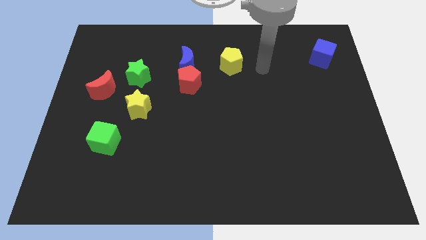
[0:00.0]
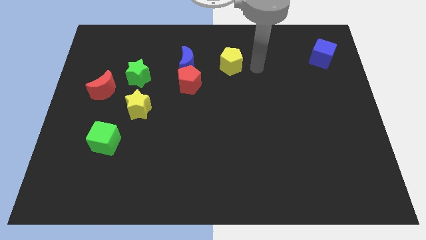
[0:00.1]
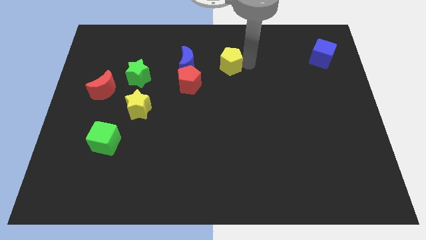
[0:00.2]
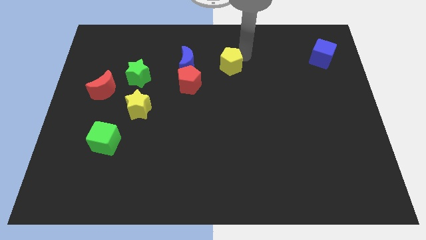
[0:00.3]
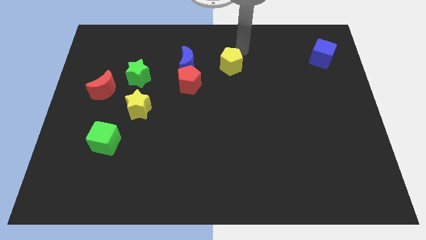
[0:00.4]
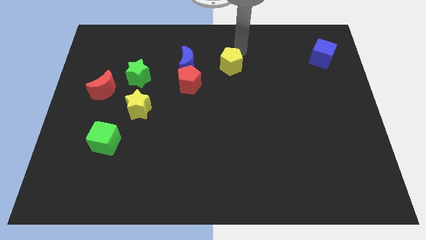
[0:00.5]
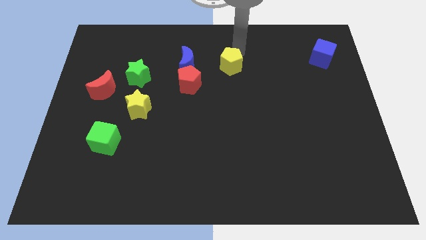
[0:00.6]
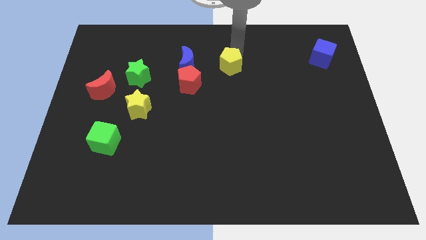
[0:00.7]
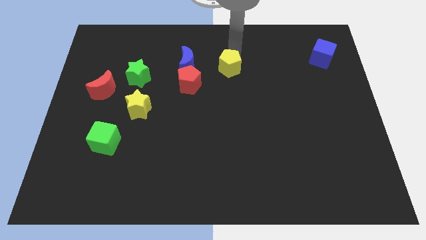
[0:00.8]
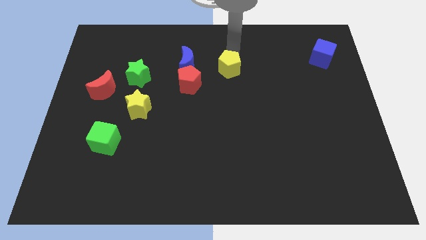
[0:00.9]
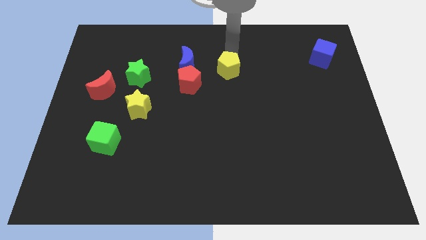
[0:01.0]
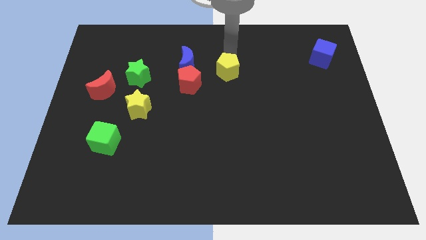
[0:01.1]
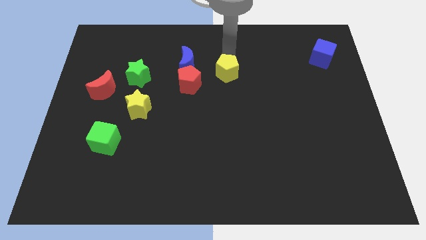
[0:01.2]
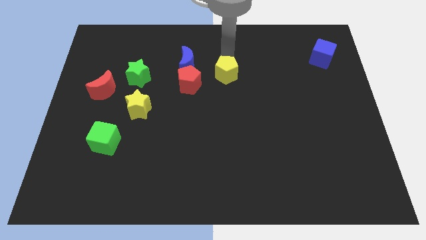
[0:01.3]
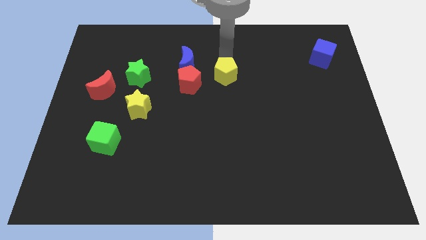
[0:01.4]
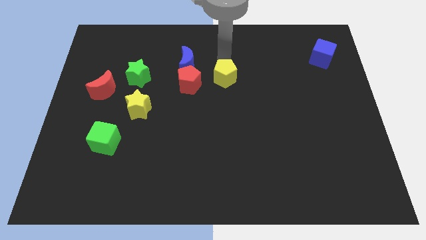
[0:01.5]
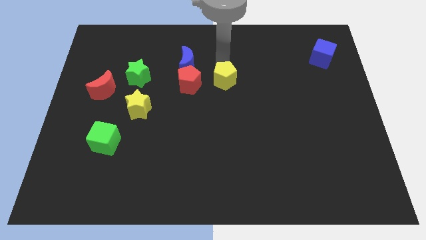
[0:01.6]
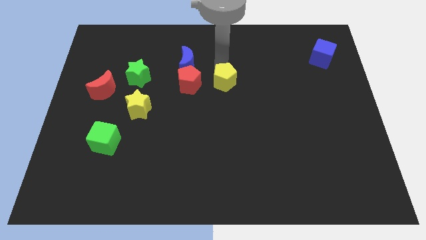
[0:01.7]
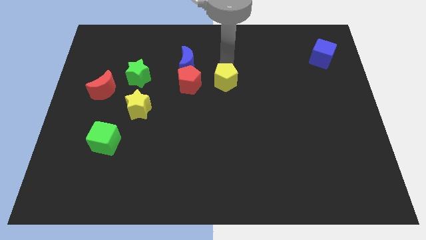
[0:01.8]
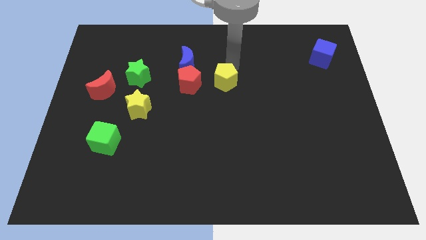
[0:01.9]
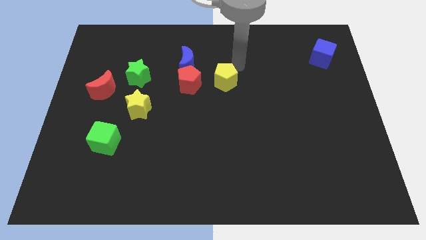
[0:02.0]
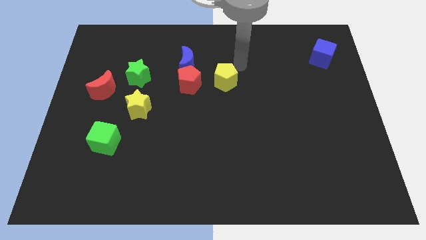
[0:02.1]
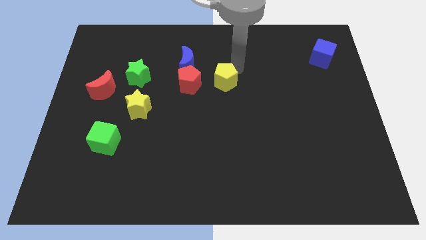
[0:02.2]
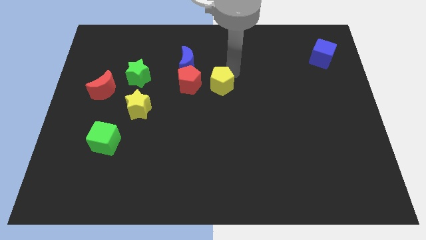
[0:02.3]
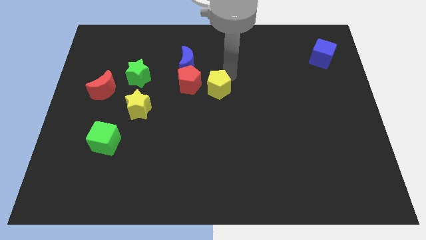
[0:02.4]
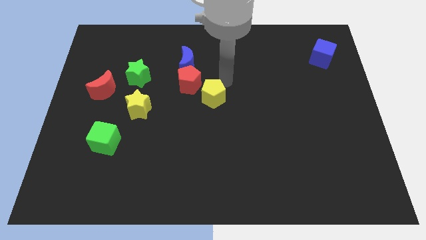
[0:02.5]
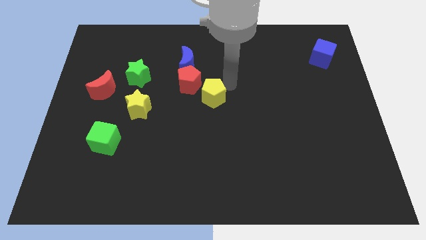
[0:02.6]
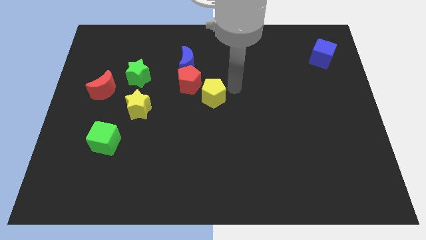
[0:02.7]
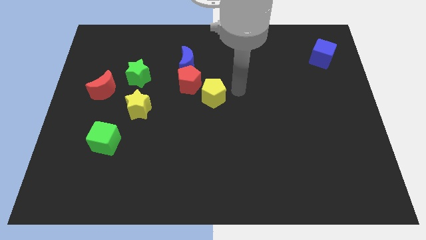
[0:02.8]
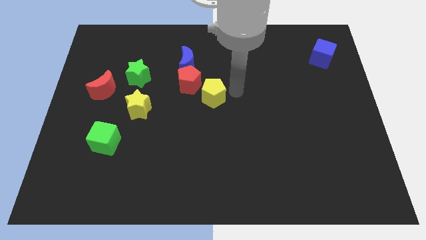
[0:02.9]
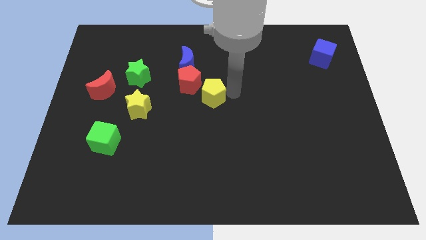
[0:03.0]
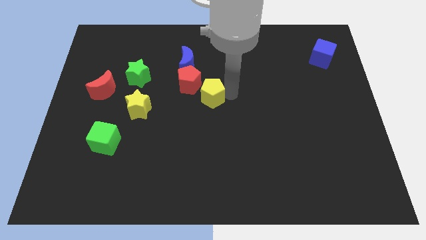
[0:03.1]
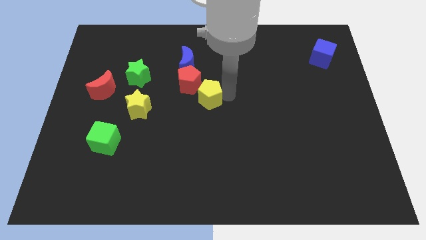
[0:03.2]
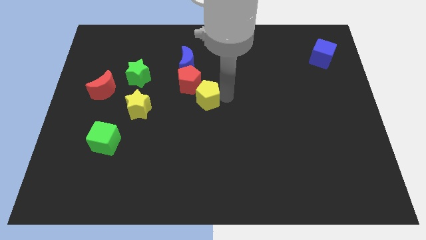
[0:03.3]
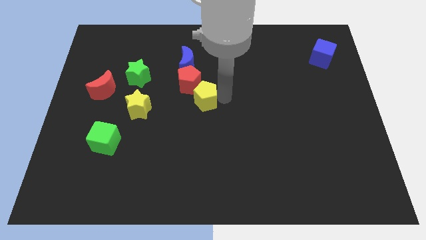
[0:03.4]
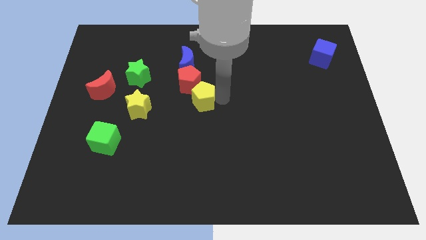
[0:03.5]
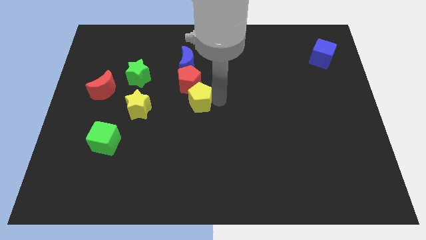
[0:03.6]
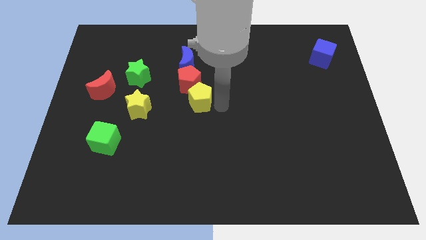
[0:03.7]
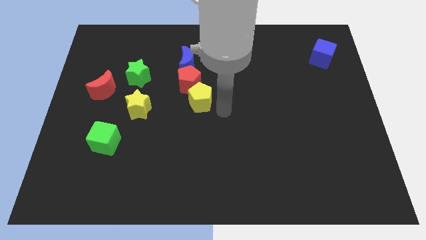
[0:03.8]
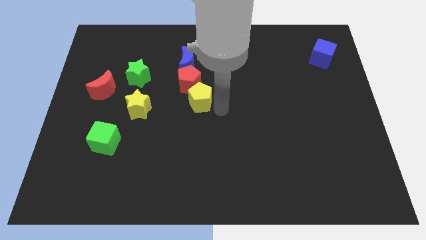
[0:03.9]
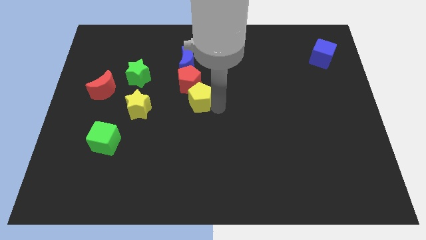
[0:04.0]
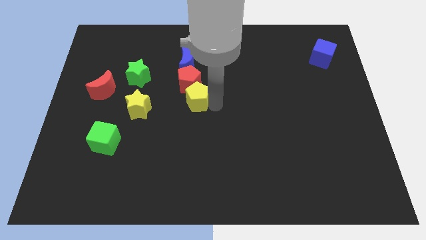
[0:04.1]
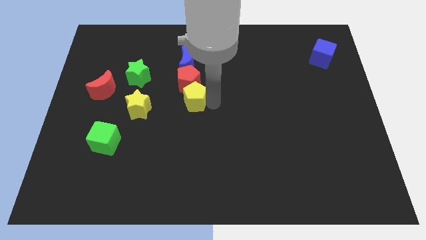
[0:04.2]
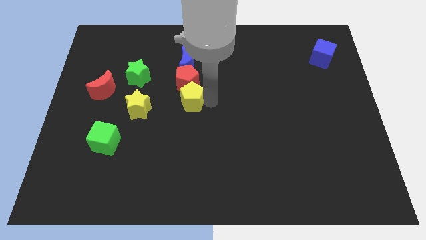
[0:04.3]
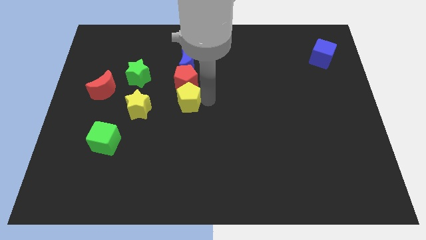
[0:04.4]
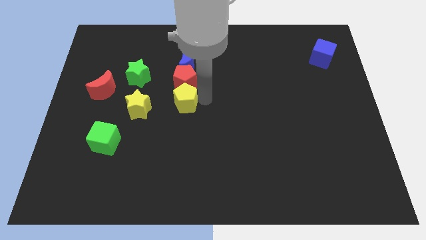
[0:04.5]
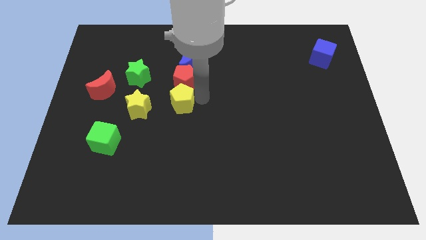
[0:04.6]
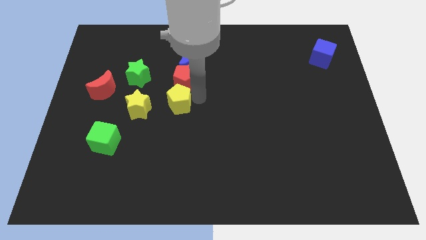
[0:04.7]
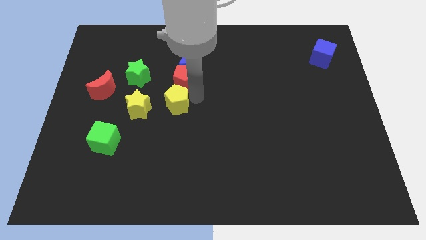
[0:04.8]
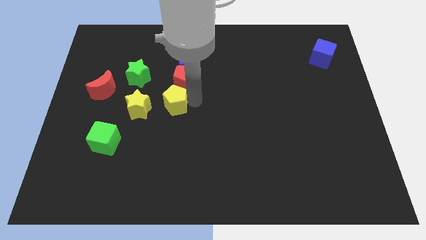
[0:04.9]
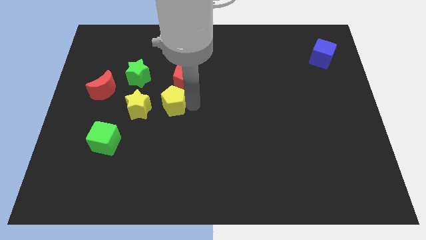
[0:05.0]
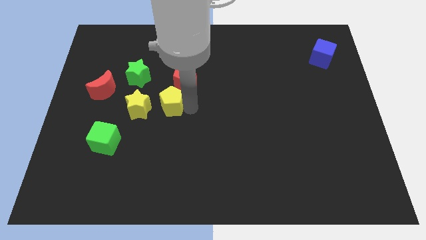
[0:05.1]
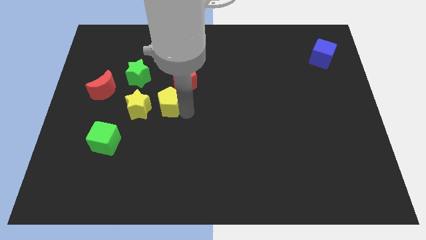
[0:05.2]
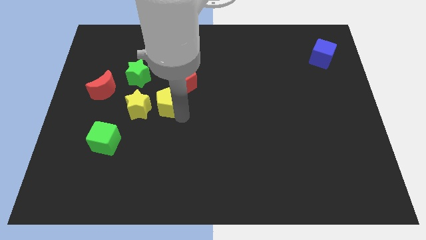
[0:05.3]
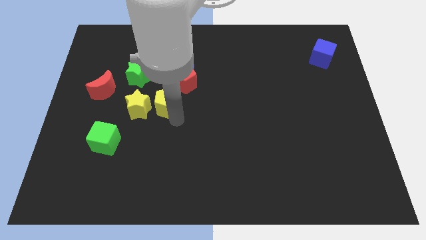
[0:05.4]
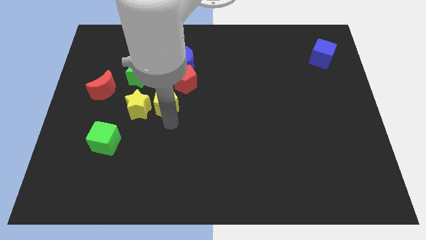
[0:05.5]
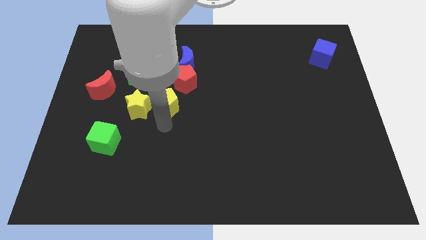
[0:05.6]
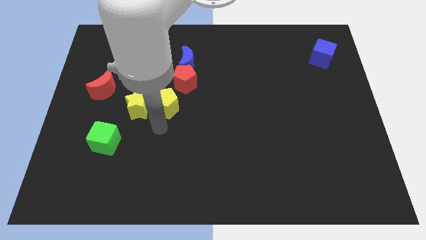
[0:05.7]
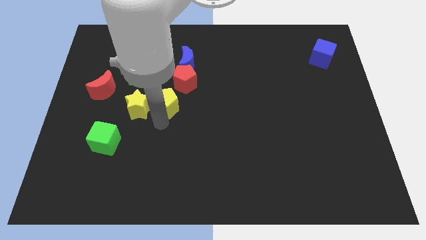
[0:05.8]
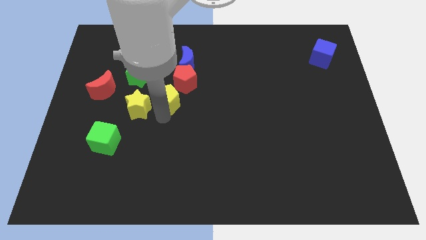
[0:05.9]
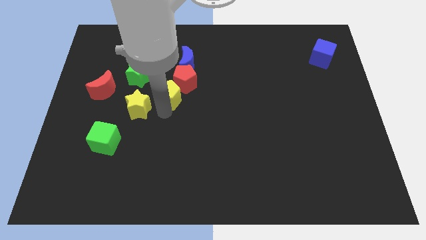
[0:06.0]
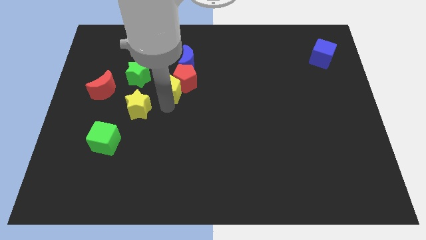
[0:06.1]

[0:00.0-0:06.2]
slide the yellow pentagon diagonally down and to the left of the blue moon
